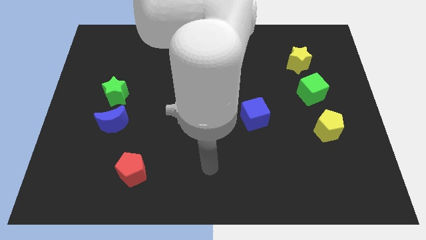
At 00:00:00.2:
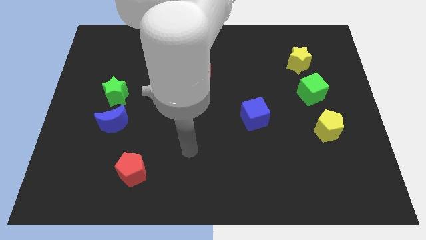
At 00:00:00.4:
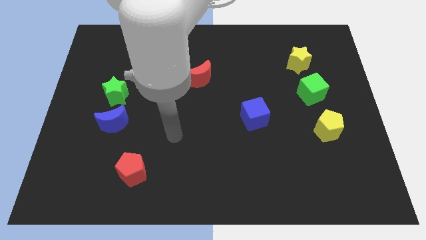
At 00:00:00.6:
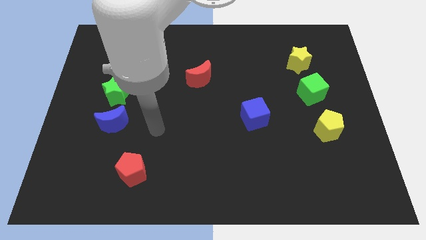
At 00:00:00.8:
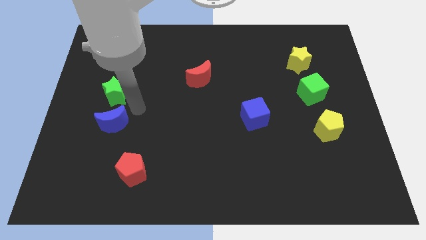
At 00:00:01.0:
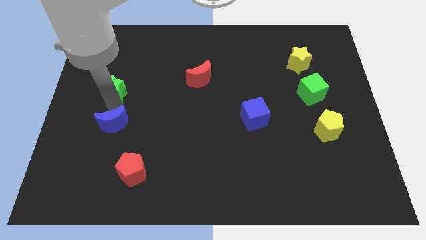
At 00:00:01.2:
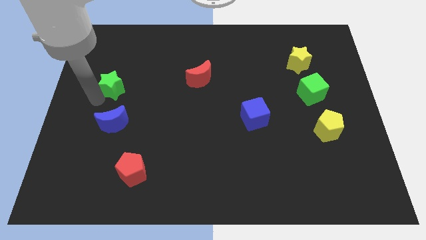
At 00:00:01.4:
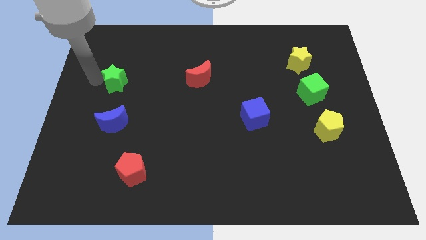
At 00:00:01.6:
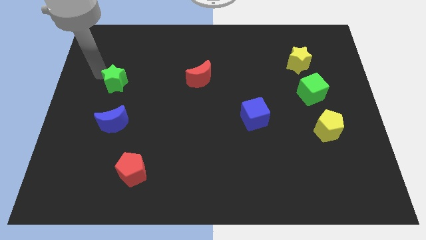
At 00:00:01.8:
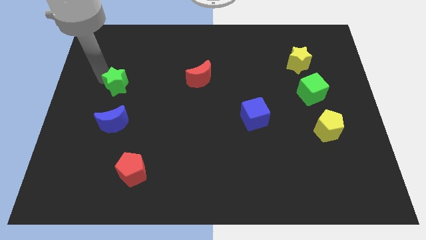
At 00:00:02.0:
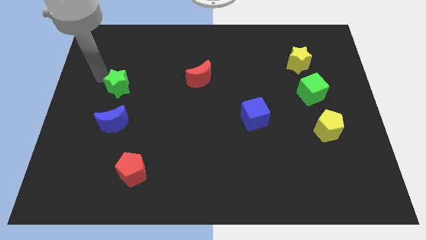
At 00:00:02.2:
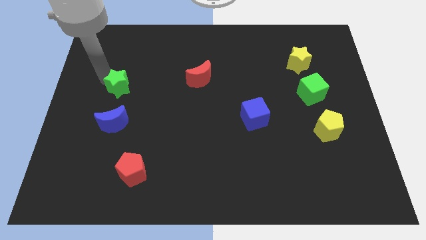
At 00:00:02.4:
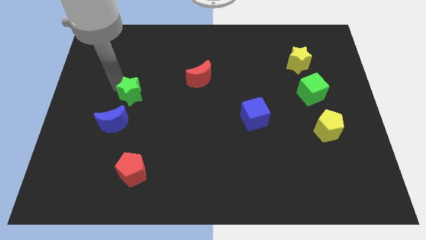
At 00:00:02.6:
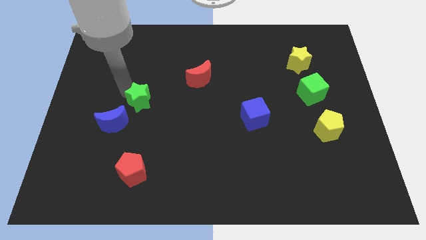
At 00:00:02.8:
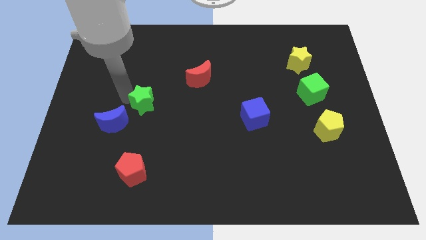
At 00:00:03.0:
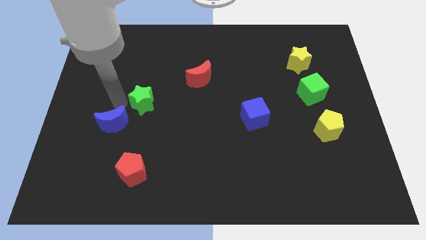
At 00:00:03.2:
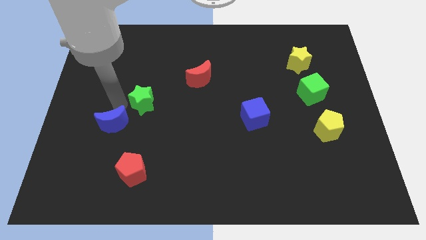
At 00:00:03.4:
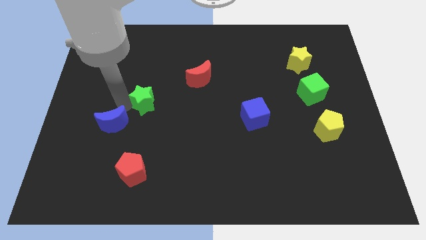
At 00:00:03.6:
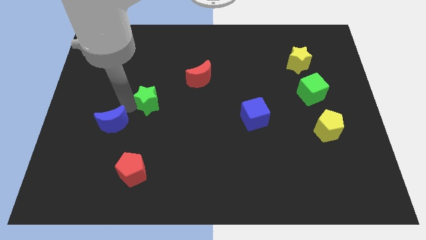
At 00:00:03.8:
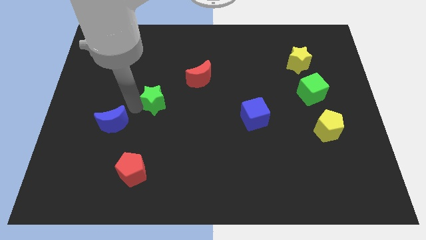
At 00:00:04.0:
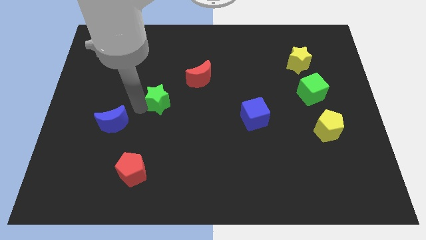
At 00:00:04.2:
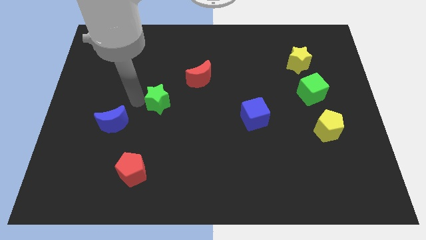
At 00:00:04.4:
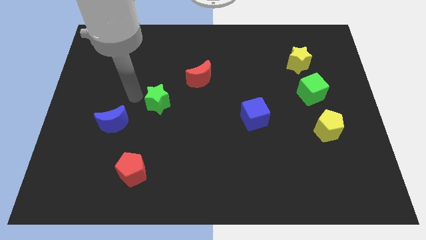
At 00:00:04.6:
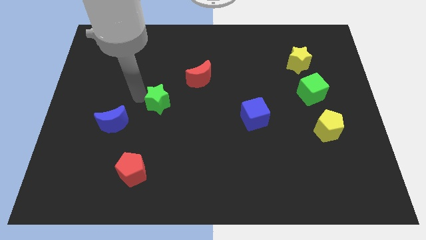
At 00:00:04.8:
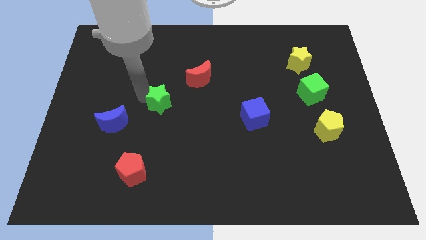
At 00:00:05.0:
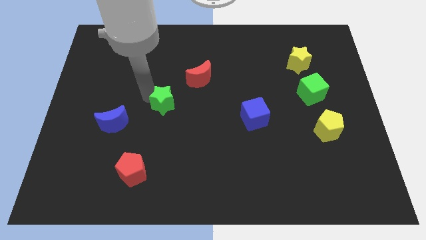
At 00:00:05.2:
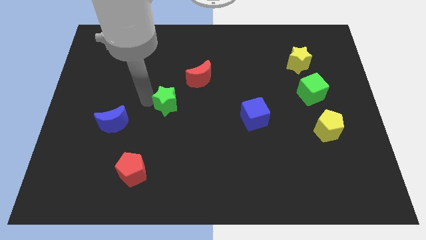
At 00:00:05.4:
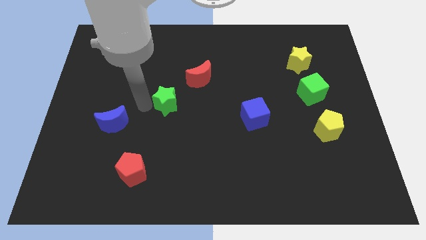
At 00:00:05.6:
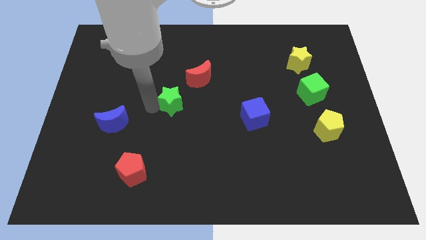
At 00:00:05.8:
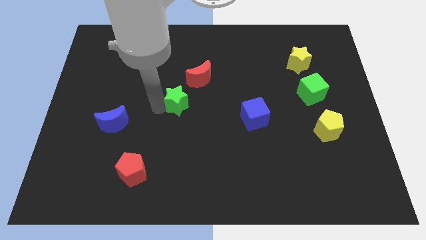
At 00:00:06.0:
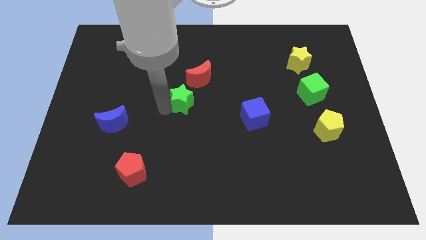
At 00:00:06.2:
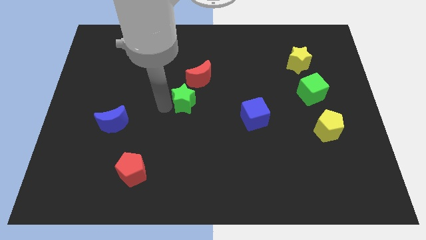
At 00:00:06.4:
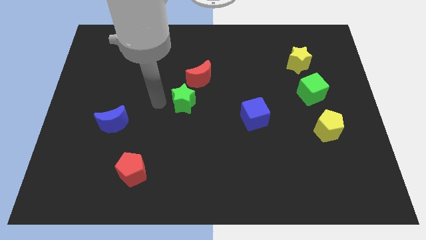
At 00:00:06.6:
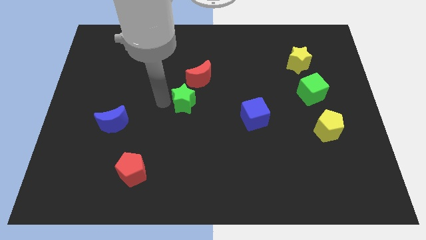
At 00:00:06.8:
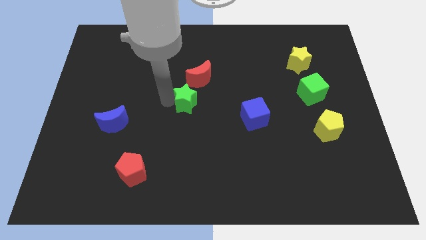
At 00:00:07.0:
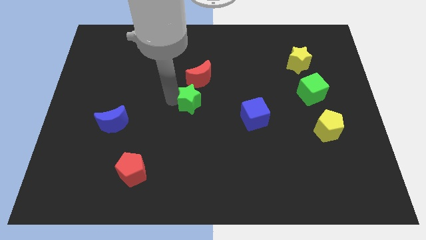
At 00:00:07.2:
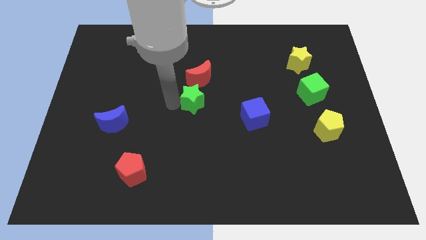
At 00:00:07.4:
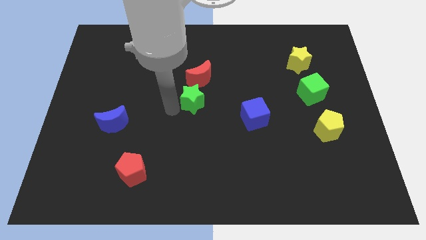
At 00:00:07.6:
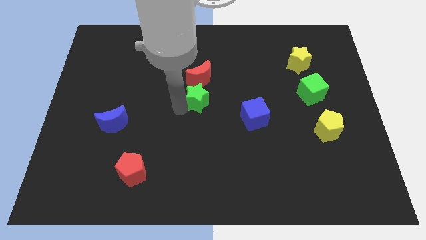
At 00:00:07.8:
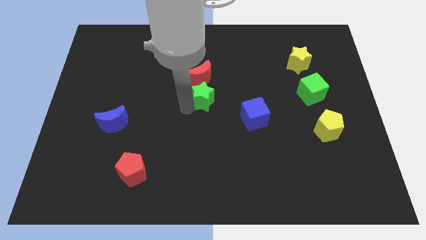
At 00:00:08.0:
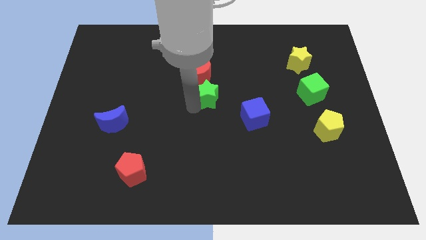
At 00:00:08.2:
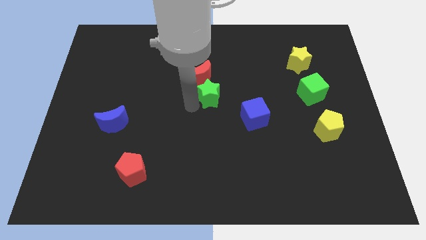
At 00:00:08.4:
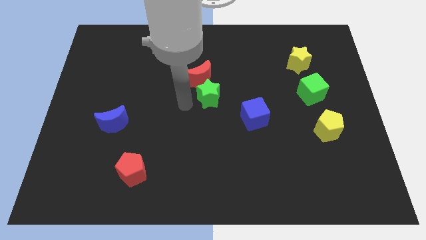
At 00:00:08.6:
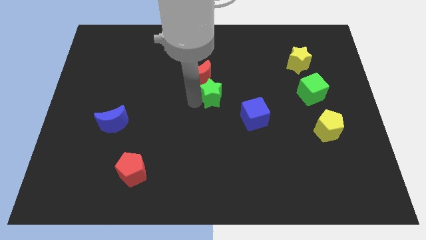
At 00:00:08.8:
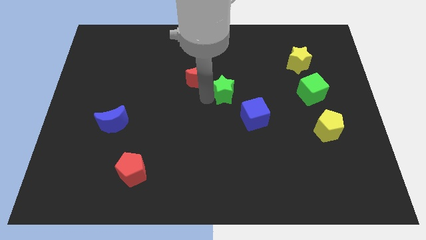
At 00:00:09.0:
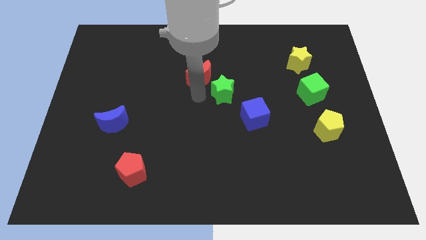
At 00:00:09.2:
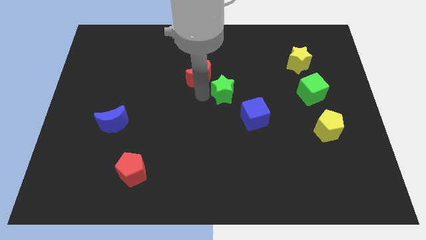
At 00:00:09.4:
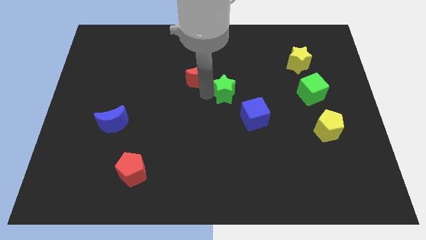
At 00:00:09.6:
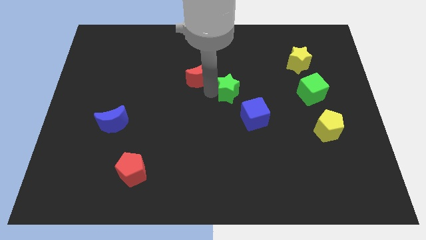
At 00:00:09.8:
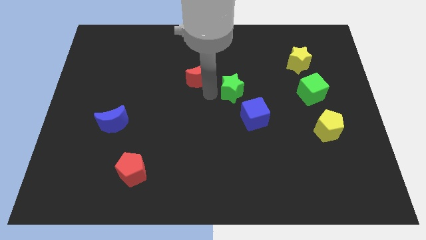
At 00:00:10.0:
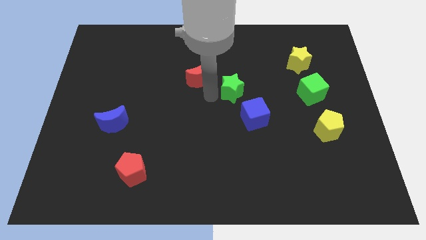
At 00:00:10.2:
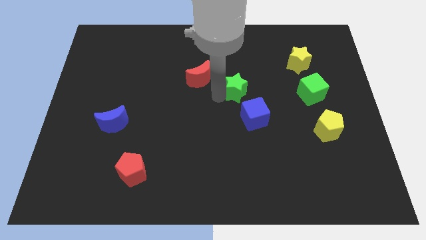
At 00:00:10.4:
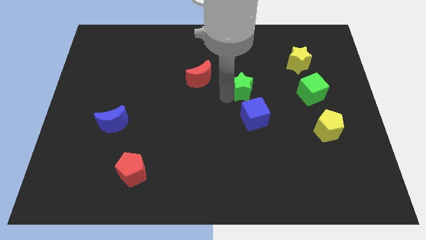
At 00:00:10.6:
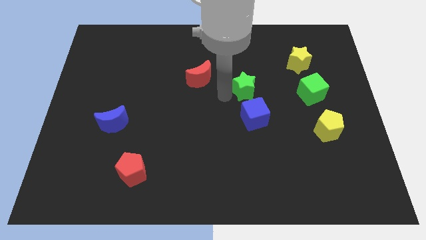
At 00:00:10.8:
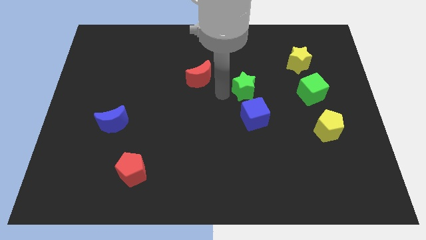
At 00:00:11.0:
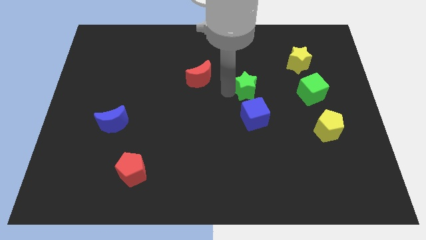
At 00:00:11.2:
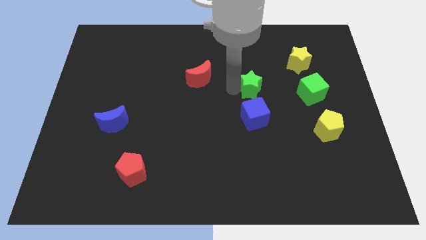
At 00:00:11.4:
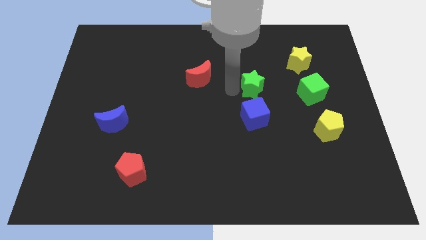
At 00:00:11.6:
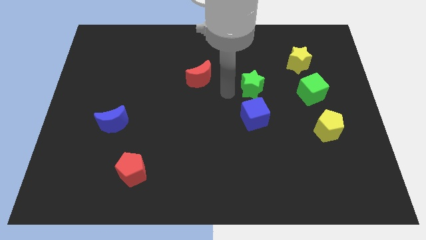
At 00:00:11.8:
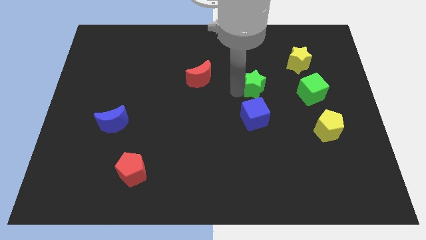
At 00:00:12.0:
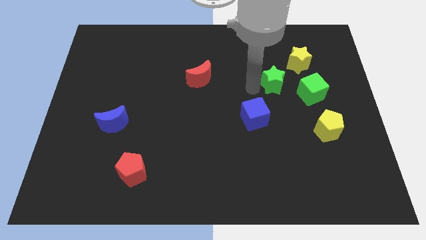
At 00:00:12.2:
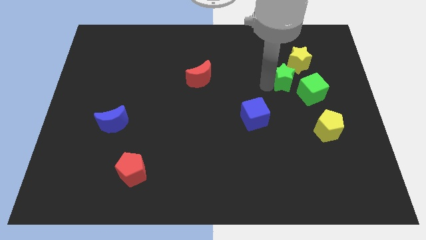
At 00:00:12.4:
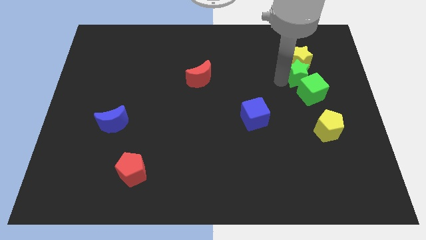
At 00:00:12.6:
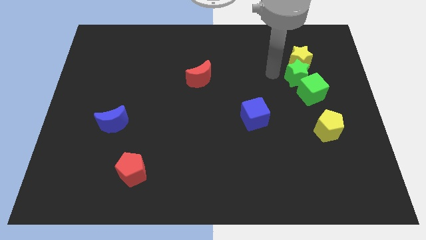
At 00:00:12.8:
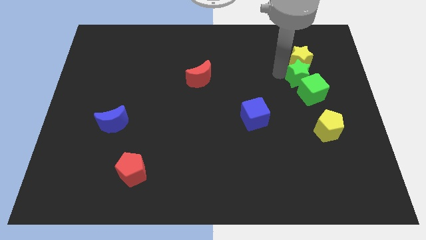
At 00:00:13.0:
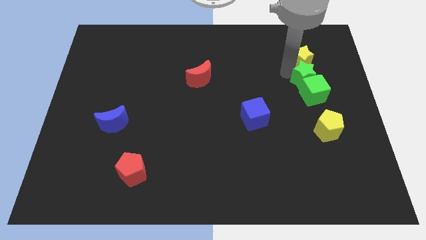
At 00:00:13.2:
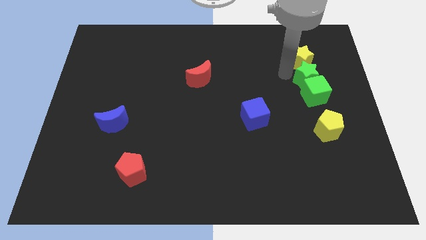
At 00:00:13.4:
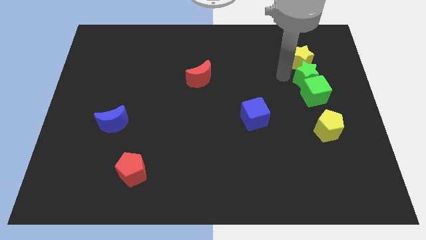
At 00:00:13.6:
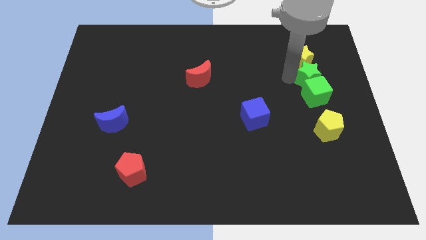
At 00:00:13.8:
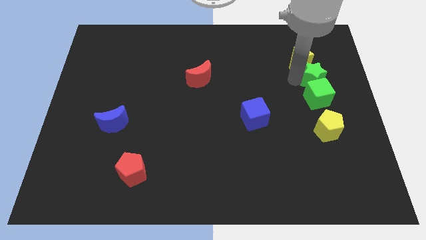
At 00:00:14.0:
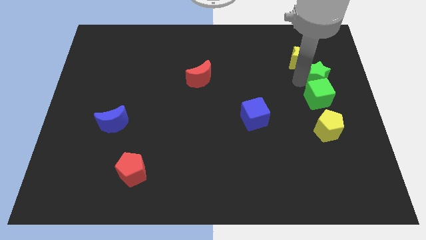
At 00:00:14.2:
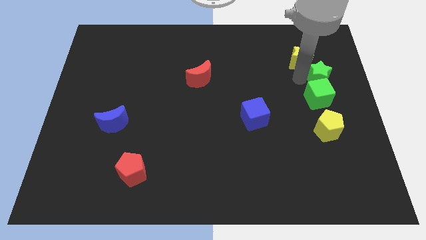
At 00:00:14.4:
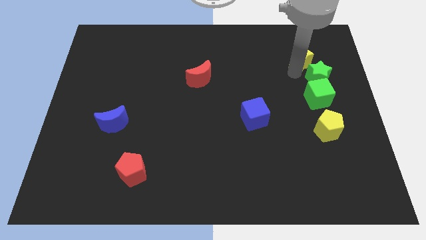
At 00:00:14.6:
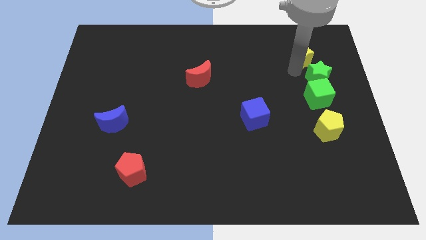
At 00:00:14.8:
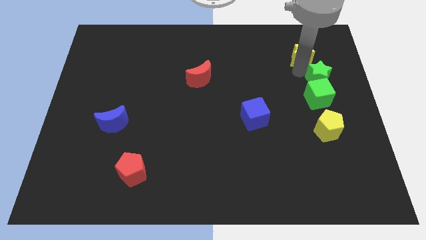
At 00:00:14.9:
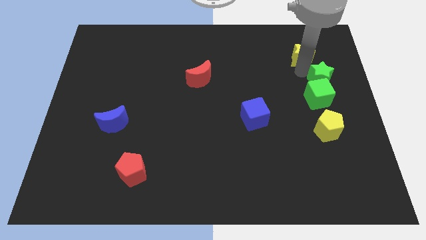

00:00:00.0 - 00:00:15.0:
slide the green star to the center right
